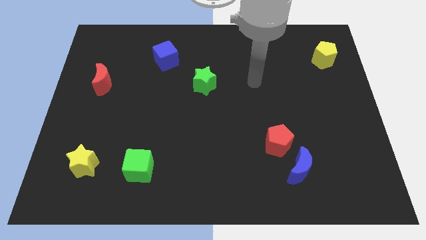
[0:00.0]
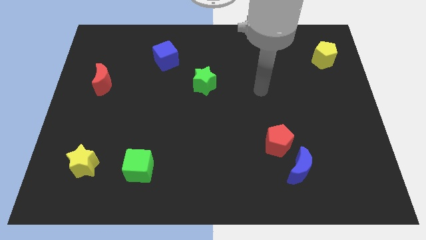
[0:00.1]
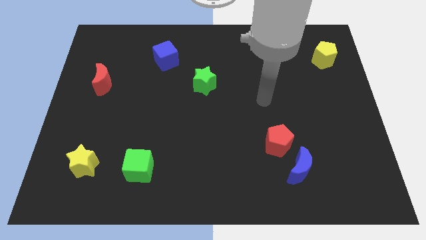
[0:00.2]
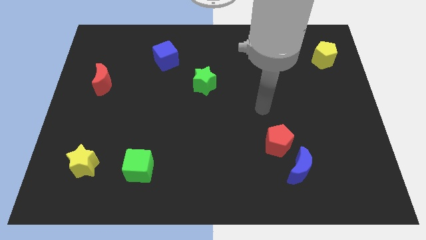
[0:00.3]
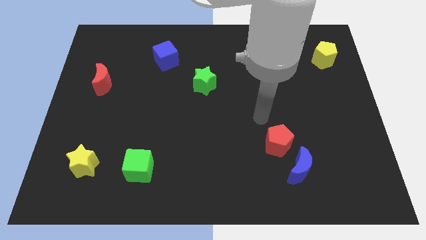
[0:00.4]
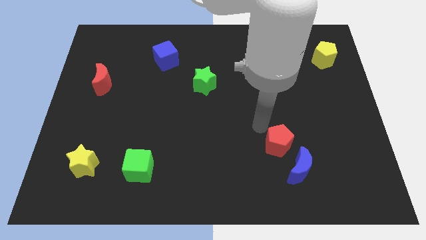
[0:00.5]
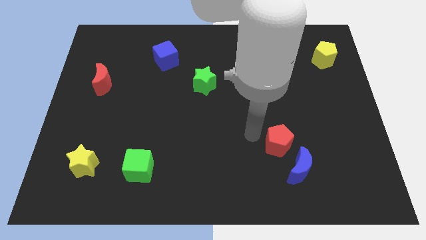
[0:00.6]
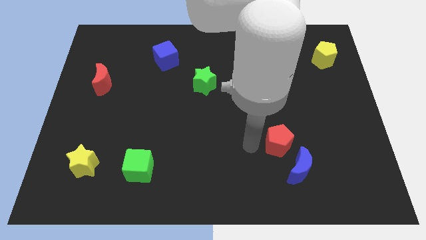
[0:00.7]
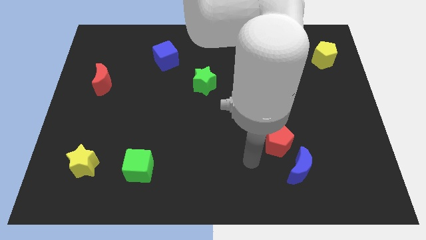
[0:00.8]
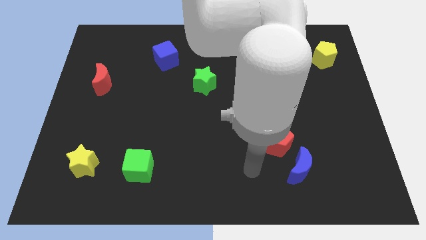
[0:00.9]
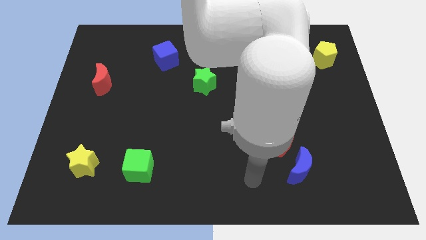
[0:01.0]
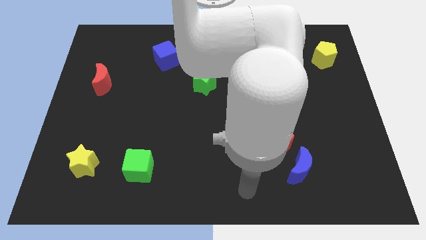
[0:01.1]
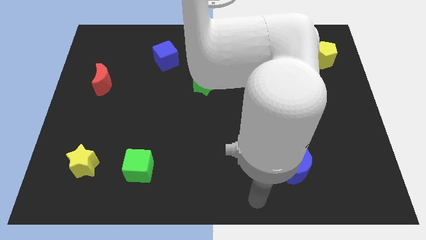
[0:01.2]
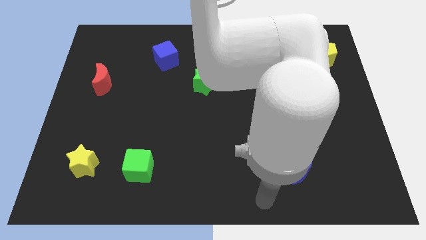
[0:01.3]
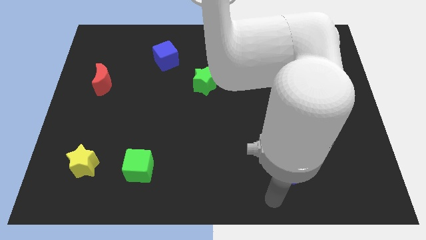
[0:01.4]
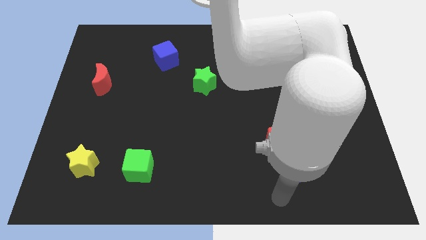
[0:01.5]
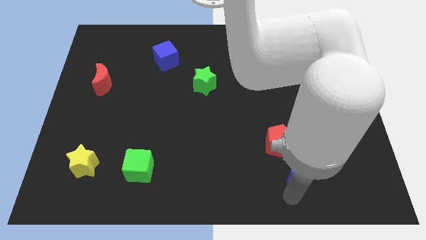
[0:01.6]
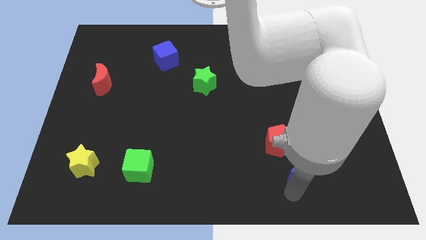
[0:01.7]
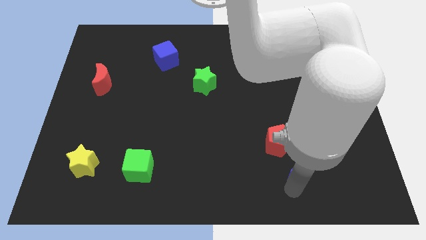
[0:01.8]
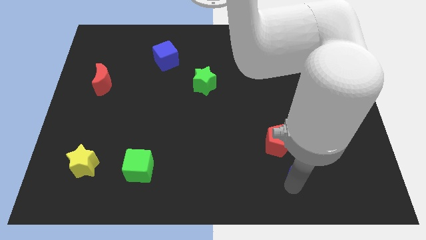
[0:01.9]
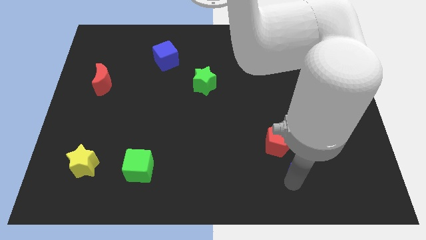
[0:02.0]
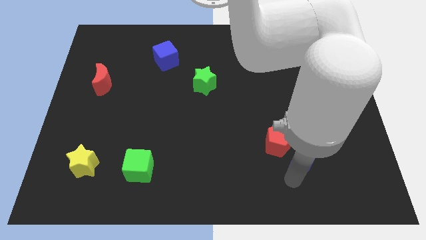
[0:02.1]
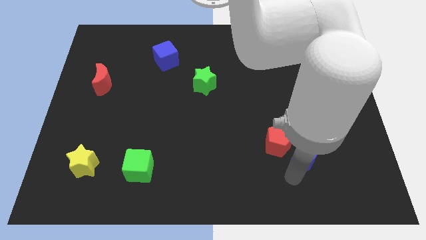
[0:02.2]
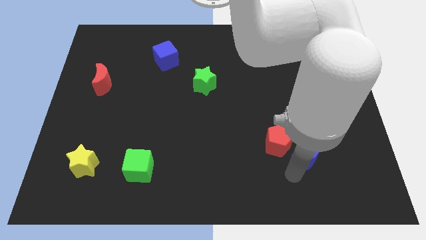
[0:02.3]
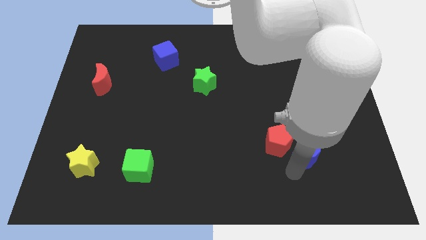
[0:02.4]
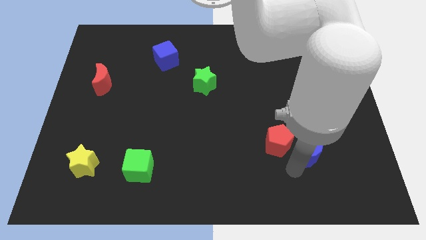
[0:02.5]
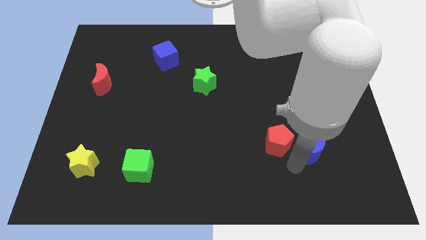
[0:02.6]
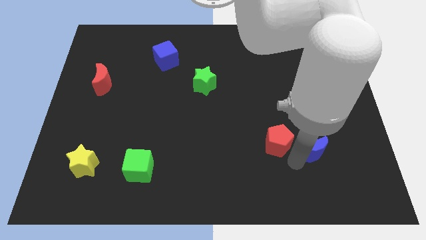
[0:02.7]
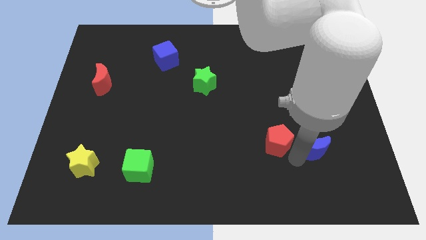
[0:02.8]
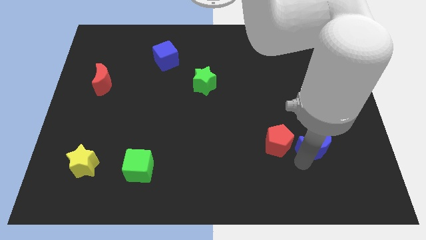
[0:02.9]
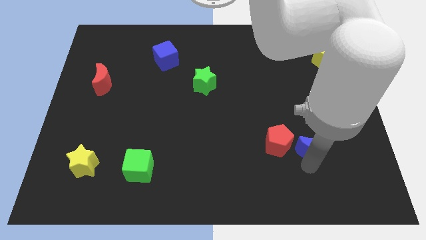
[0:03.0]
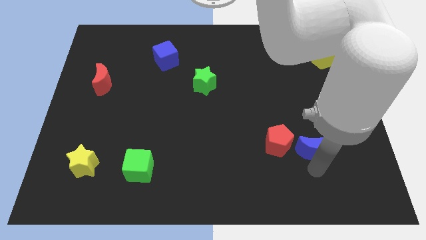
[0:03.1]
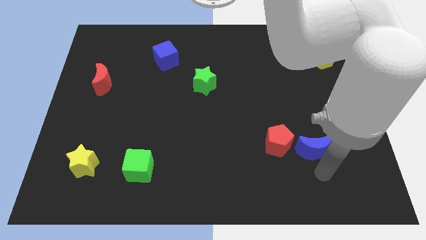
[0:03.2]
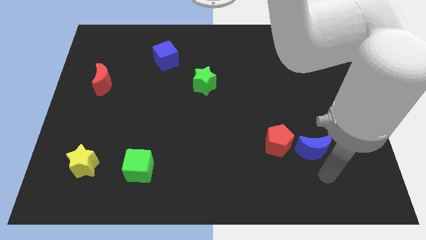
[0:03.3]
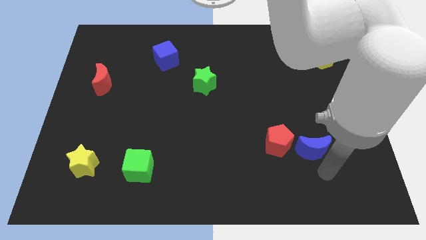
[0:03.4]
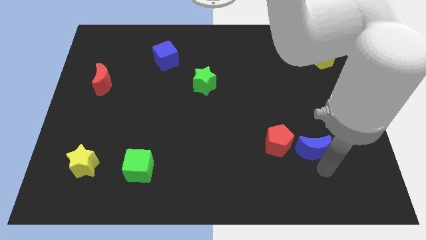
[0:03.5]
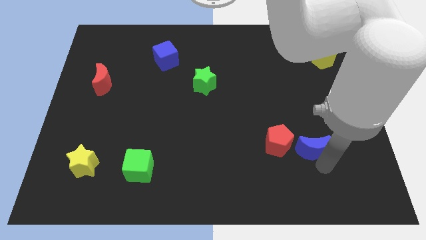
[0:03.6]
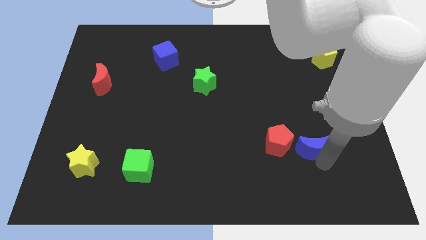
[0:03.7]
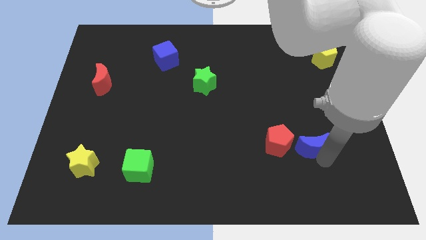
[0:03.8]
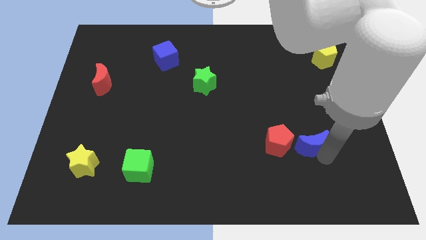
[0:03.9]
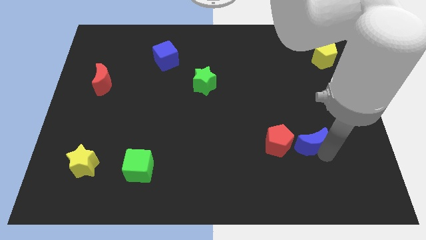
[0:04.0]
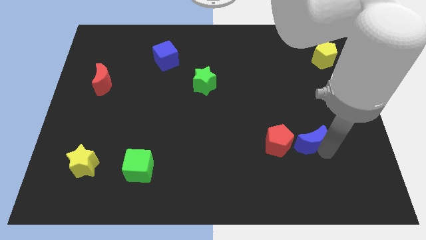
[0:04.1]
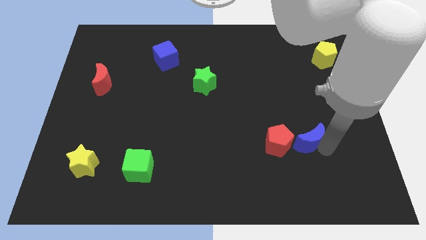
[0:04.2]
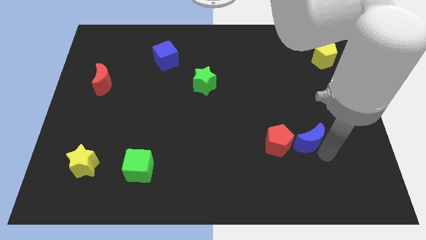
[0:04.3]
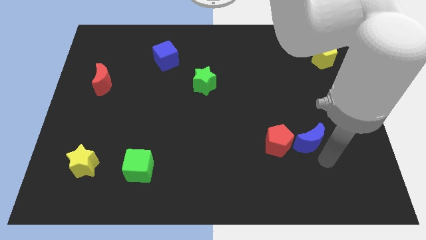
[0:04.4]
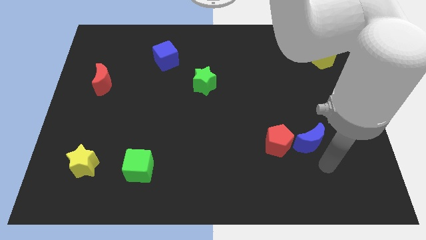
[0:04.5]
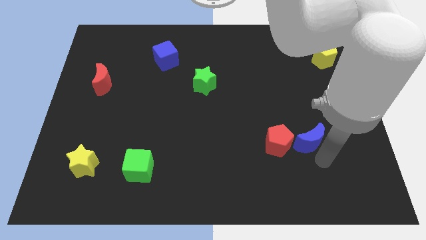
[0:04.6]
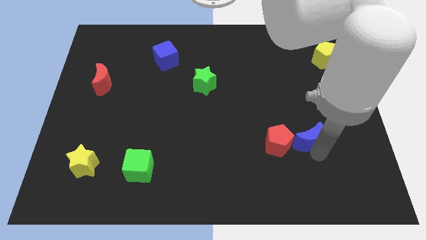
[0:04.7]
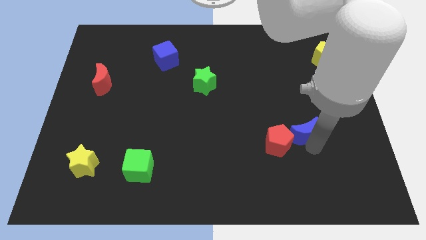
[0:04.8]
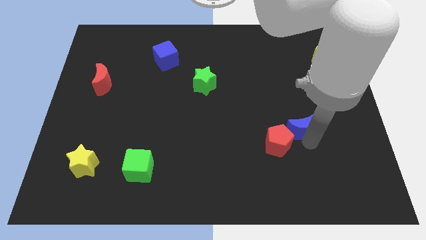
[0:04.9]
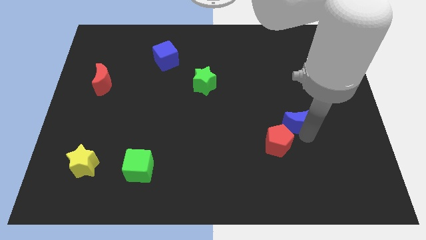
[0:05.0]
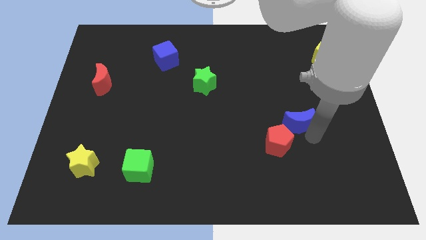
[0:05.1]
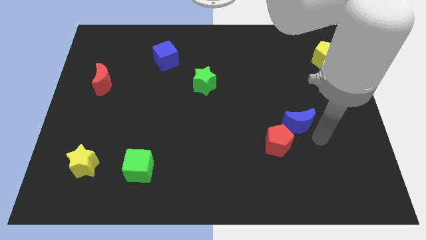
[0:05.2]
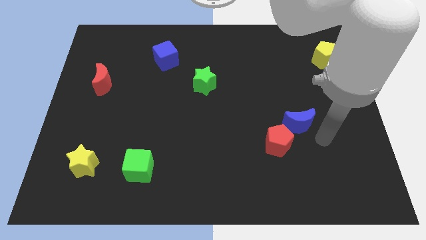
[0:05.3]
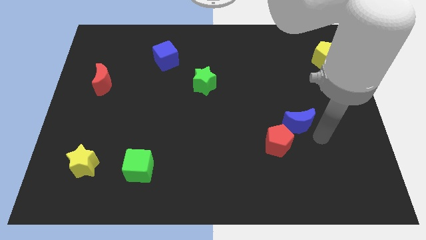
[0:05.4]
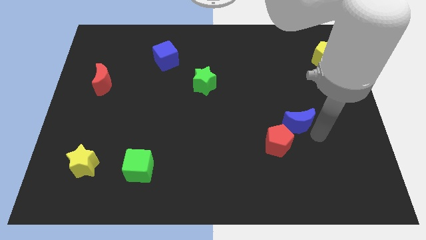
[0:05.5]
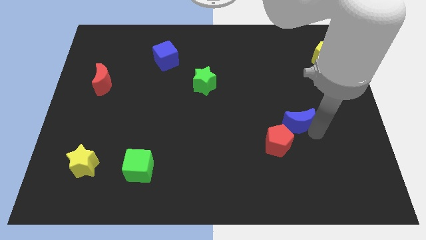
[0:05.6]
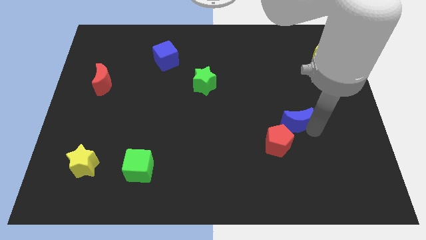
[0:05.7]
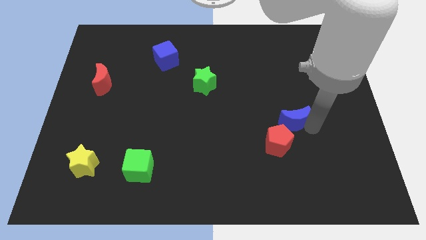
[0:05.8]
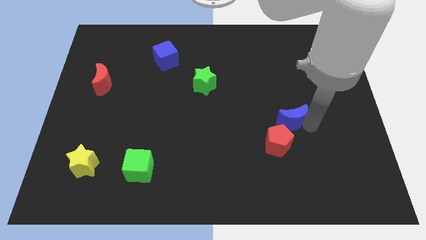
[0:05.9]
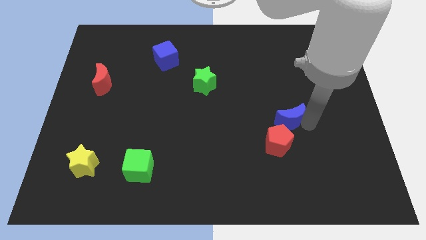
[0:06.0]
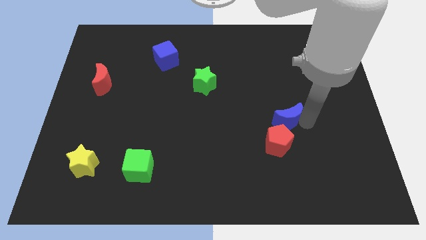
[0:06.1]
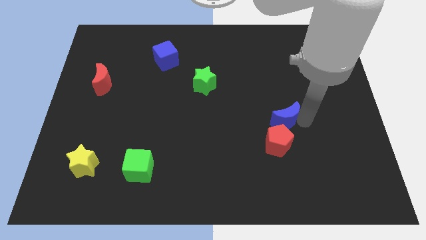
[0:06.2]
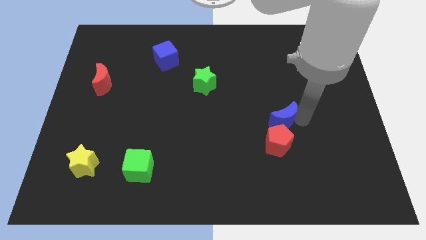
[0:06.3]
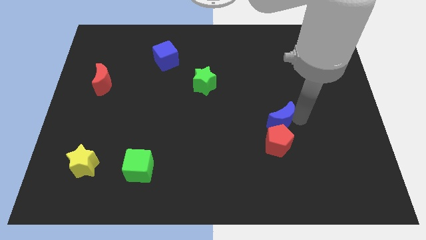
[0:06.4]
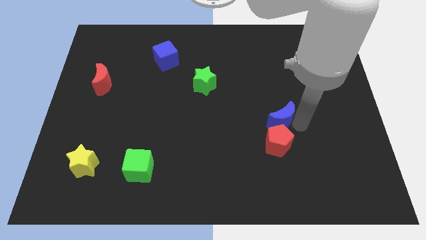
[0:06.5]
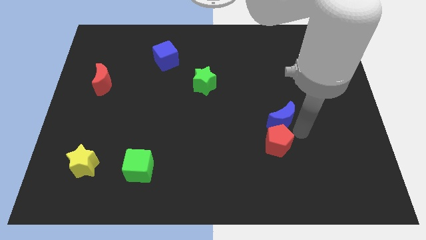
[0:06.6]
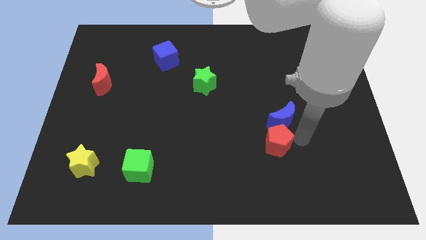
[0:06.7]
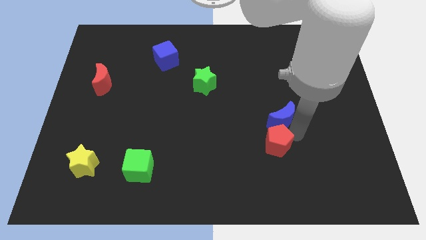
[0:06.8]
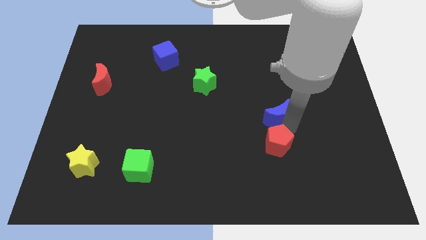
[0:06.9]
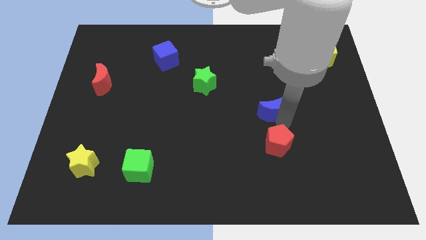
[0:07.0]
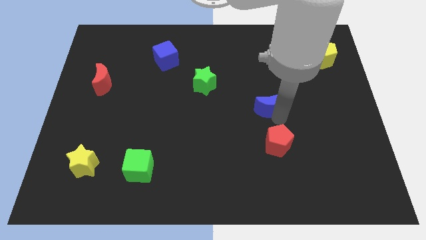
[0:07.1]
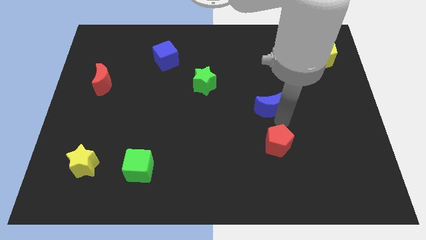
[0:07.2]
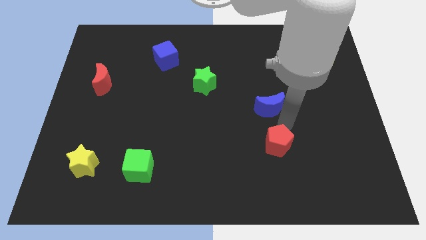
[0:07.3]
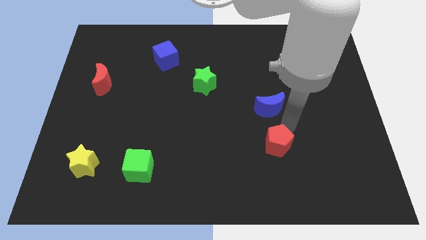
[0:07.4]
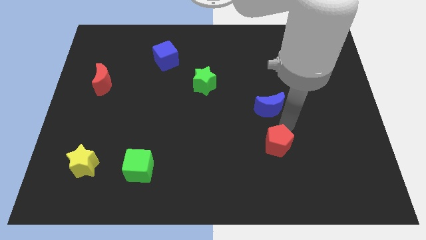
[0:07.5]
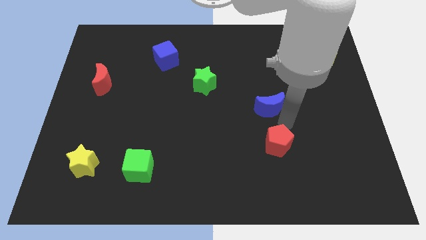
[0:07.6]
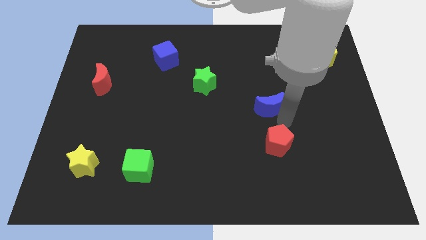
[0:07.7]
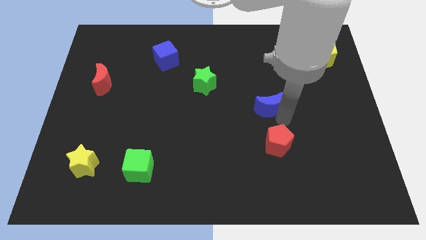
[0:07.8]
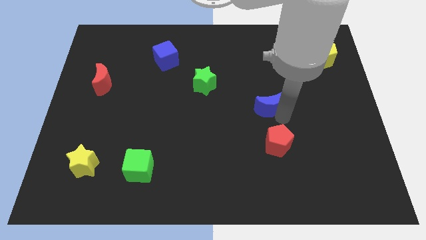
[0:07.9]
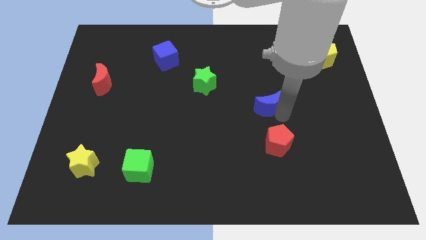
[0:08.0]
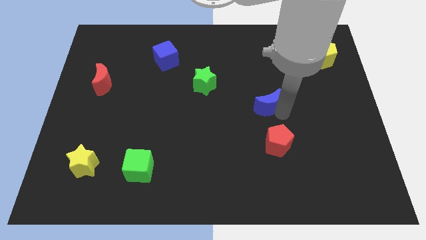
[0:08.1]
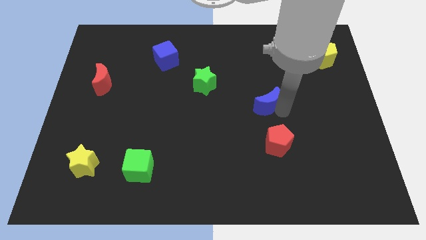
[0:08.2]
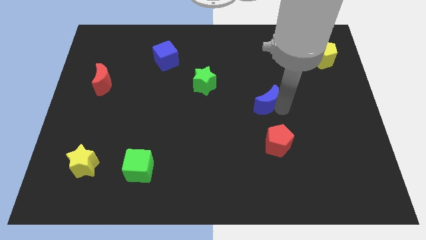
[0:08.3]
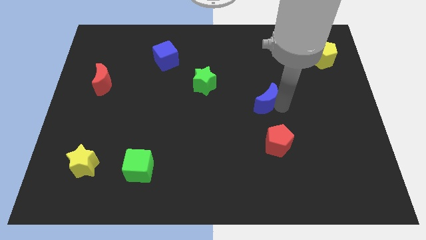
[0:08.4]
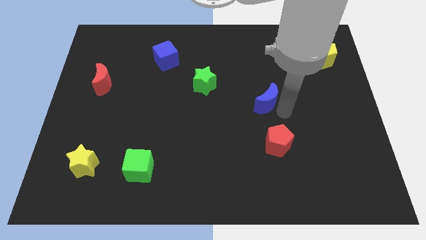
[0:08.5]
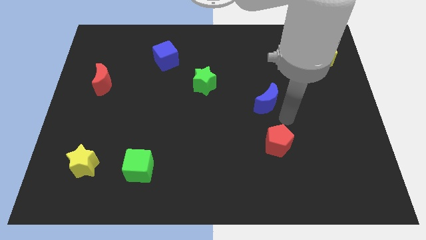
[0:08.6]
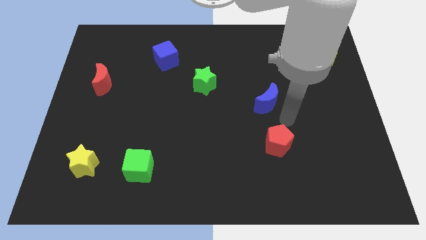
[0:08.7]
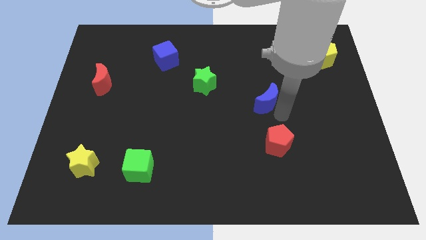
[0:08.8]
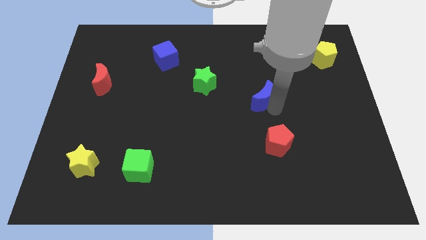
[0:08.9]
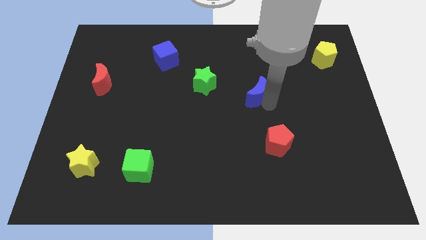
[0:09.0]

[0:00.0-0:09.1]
move the blue moon right of the green star
